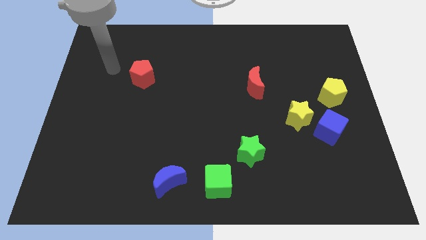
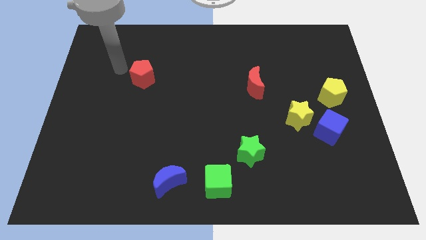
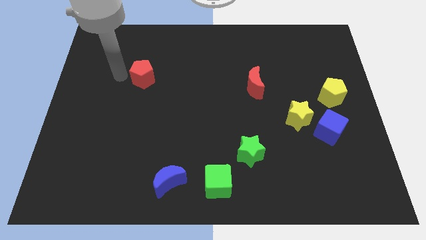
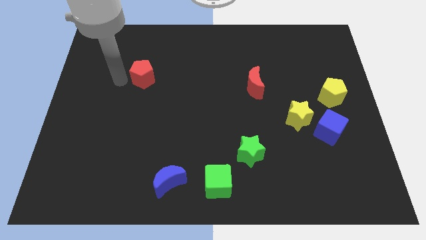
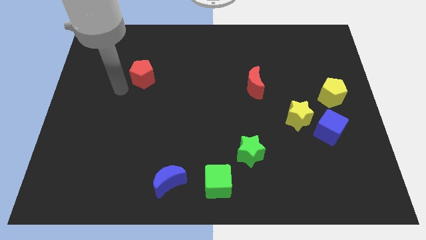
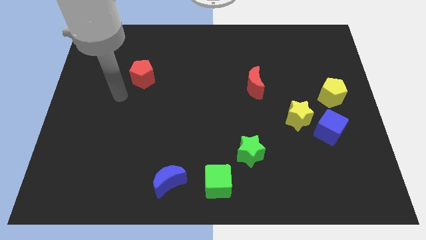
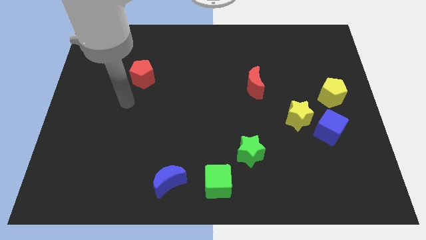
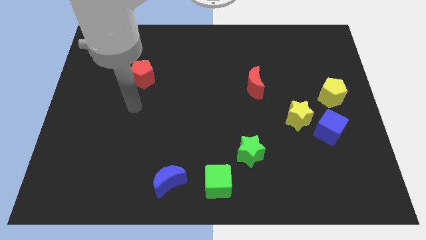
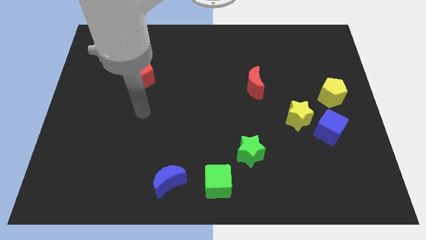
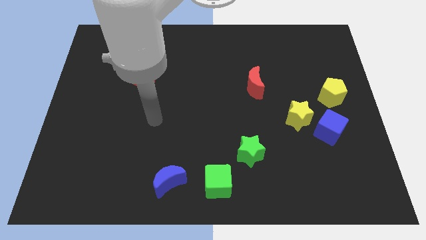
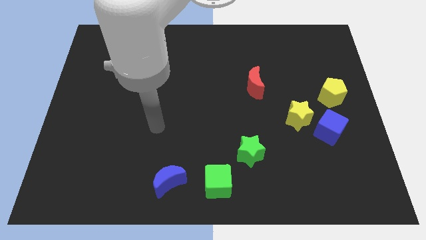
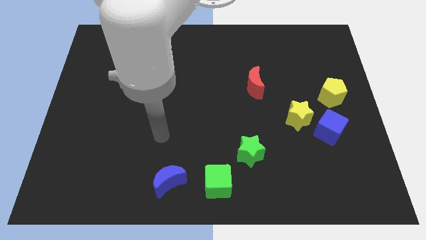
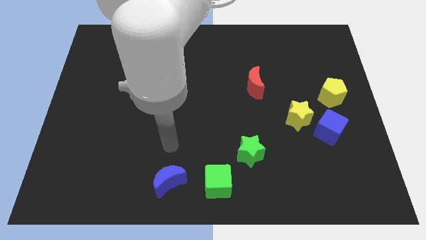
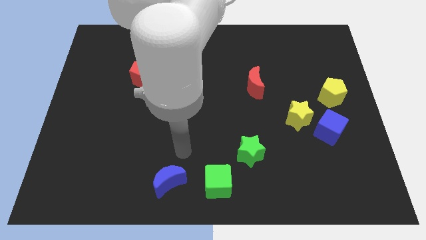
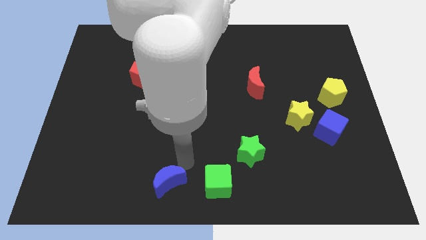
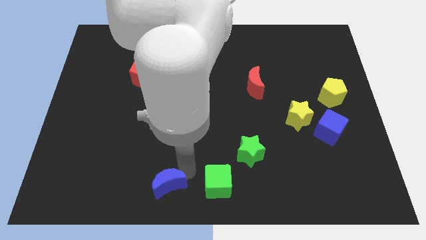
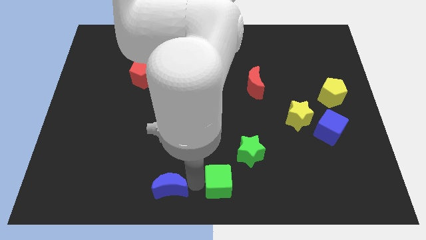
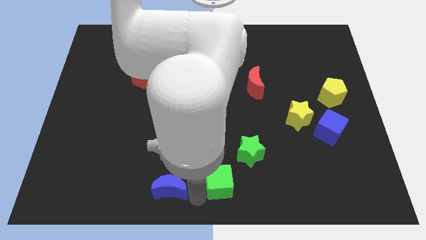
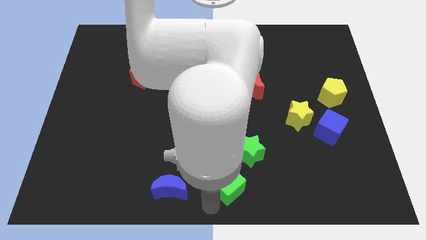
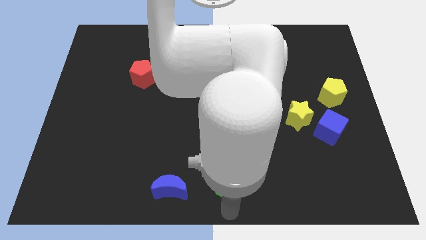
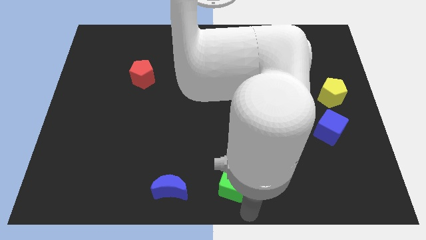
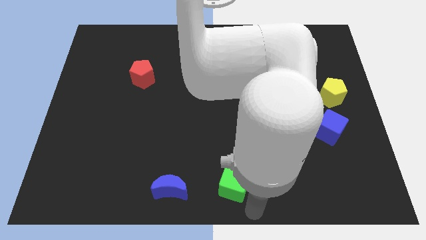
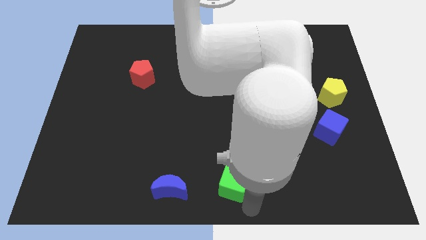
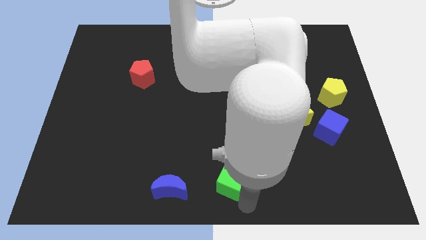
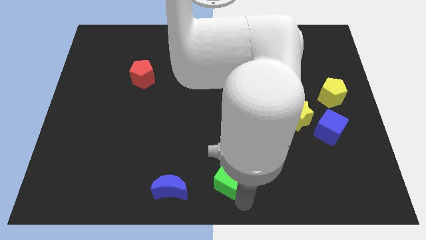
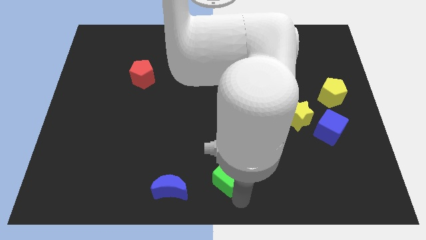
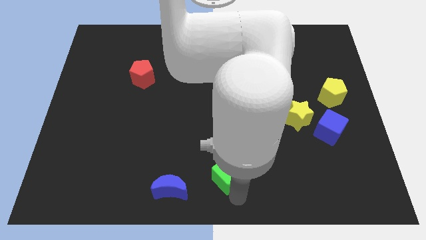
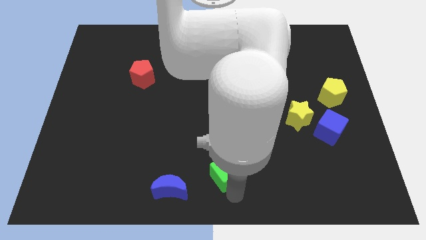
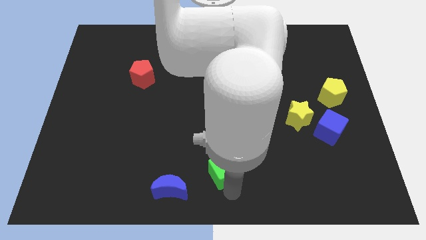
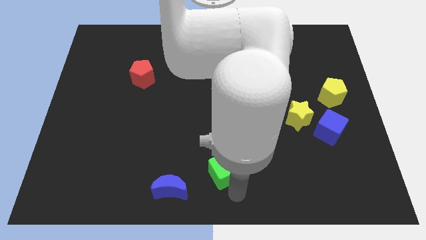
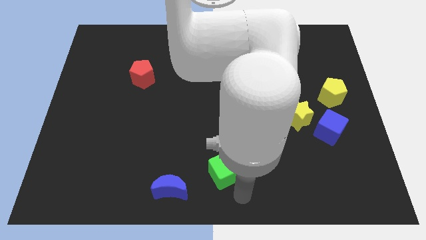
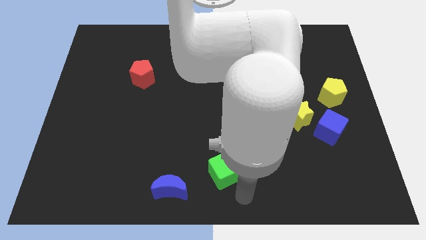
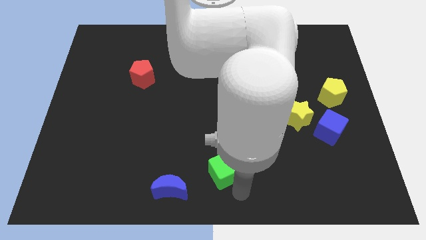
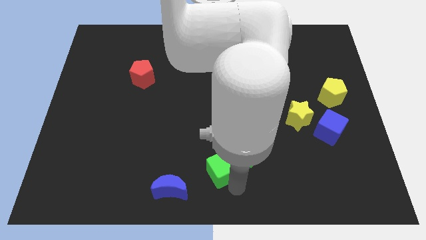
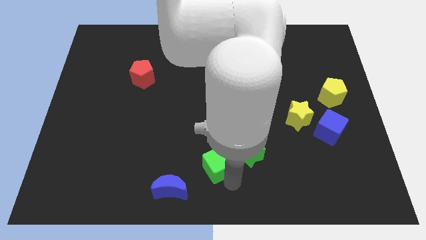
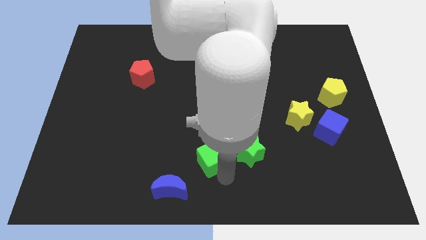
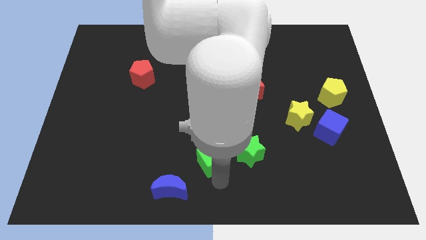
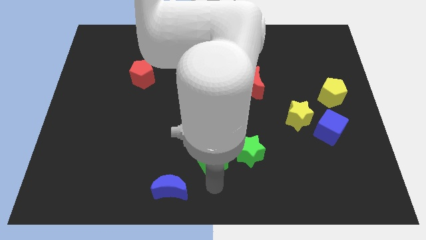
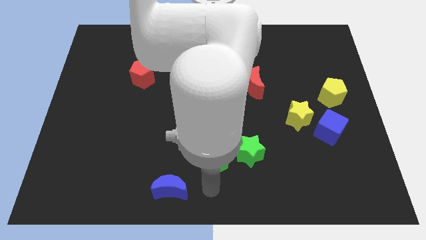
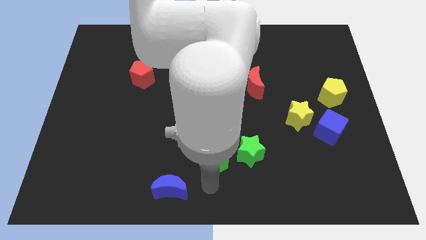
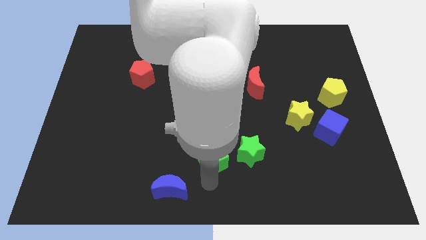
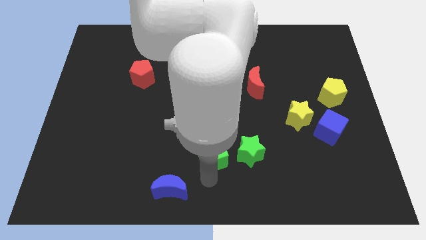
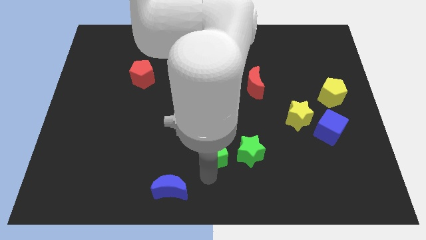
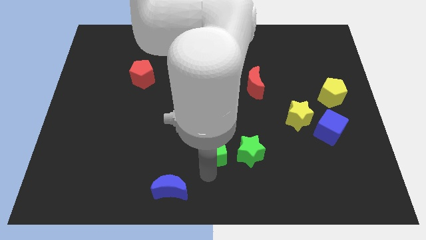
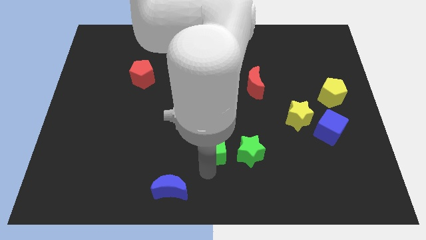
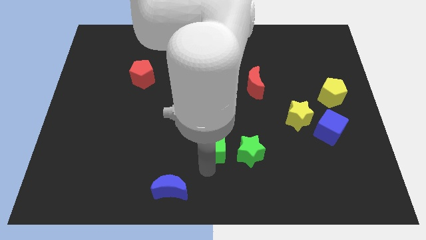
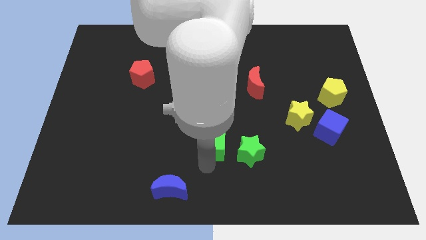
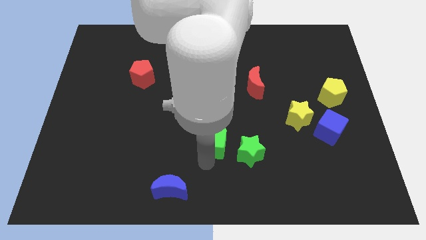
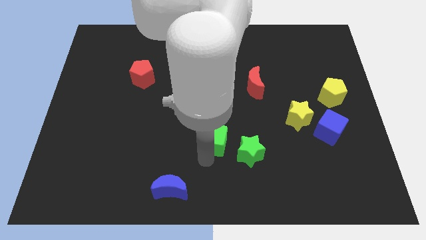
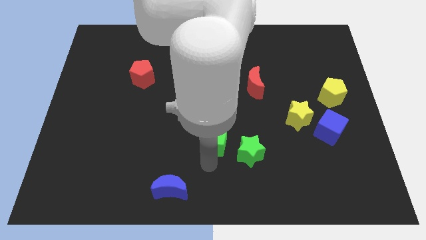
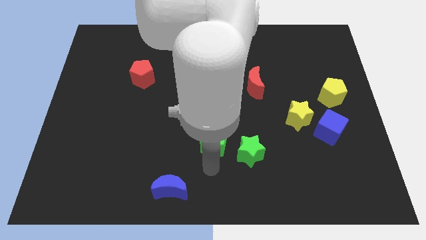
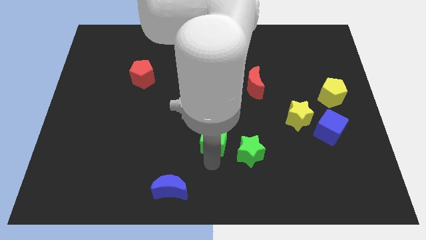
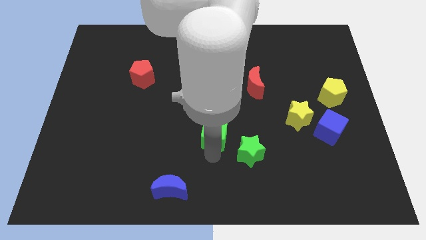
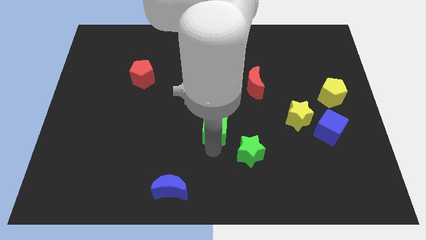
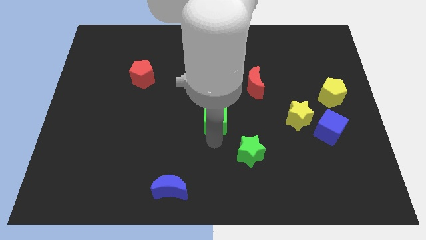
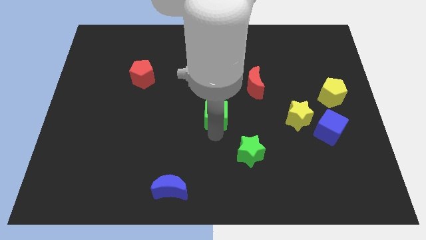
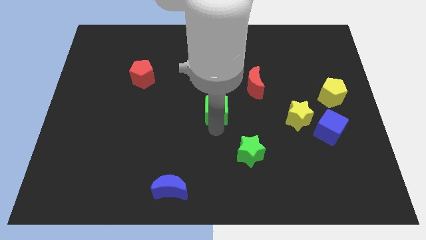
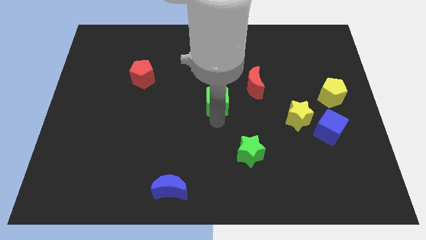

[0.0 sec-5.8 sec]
slide the green cube up

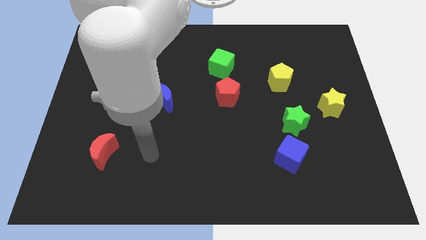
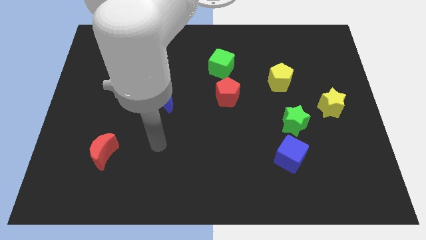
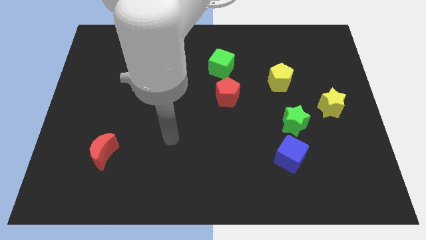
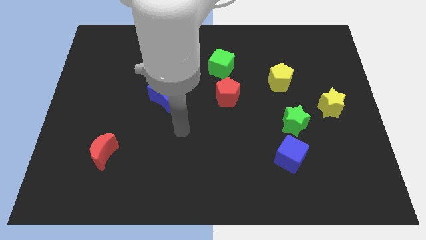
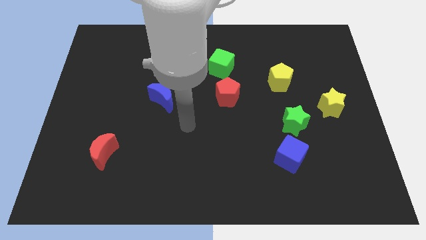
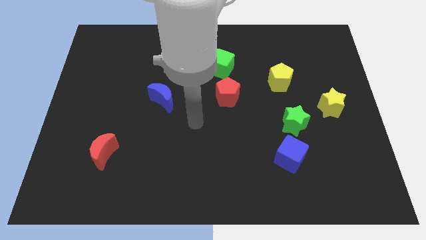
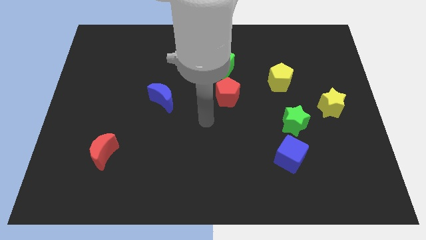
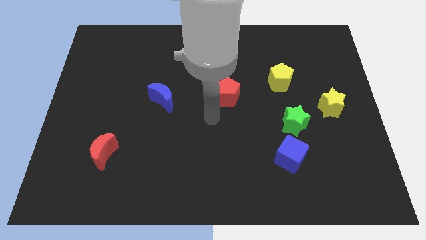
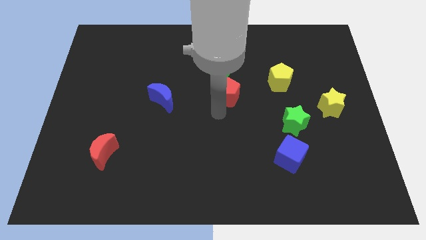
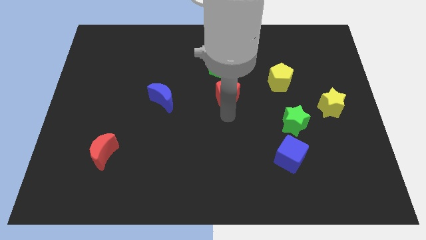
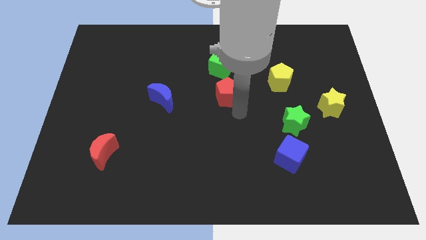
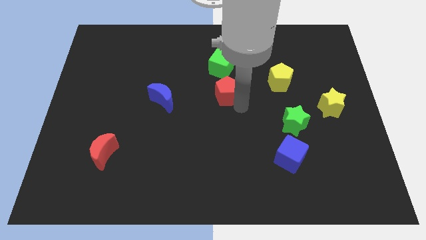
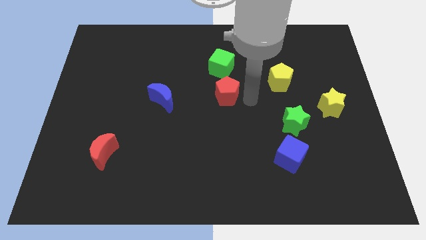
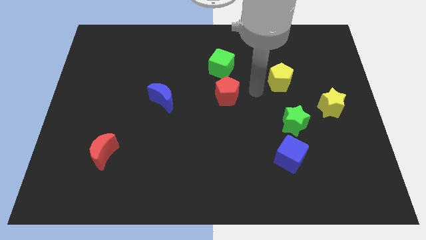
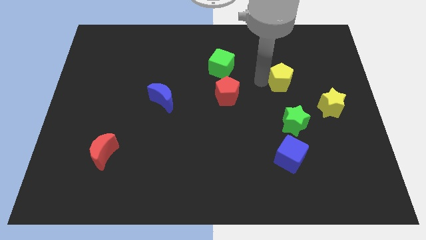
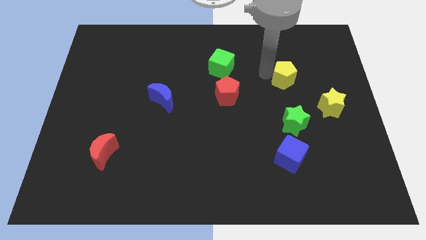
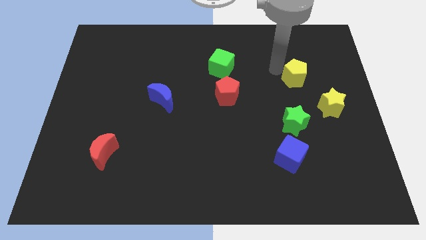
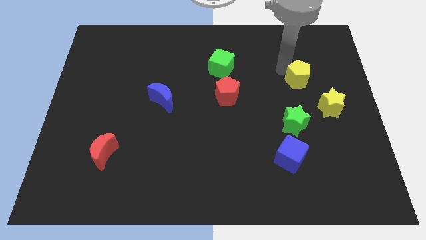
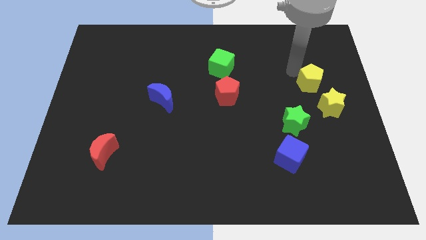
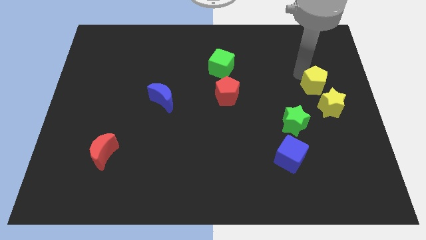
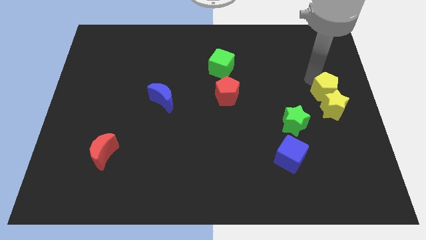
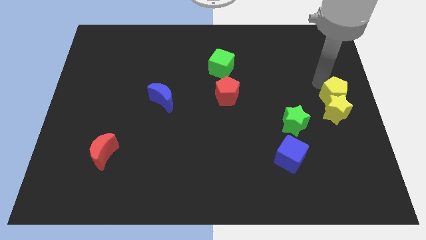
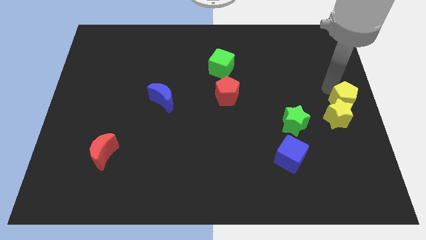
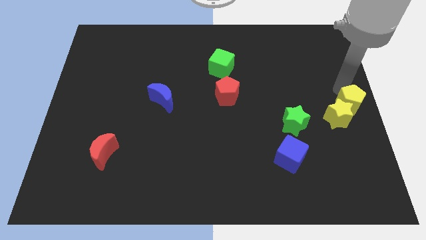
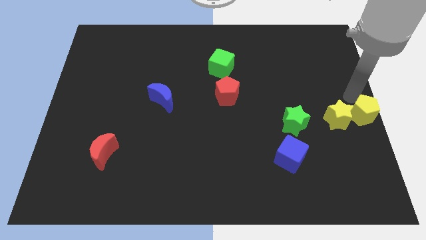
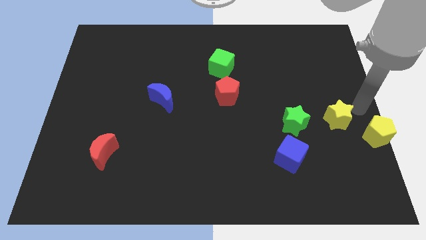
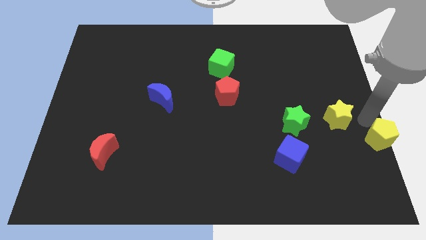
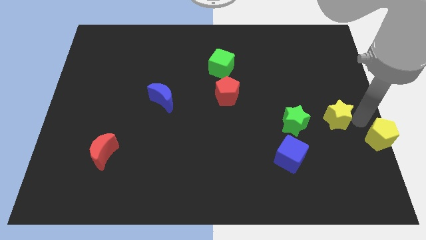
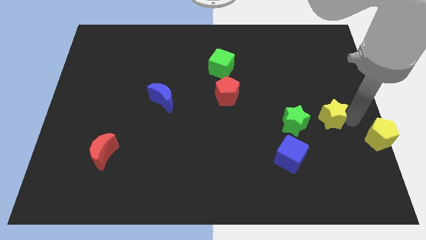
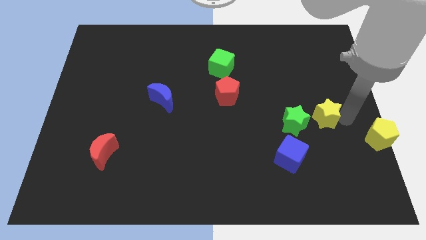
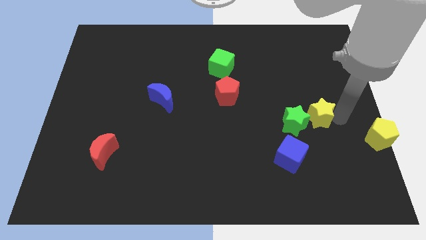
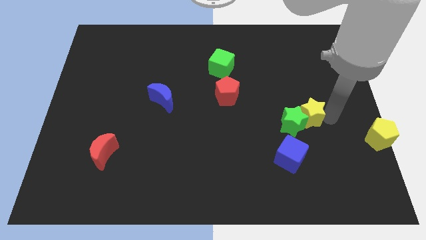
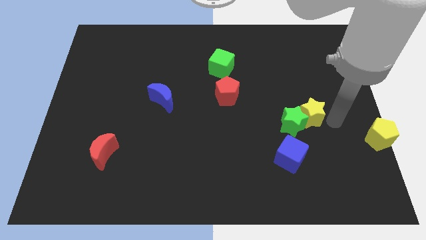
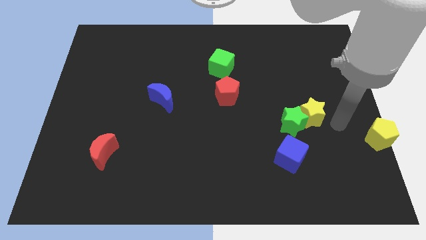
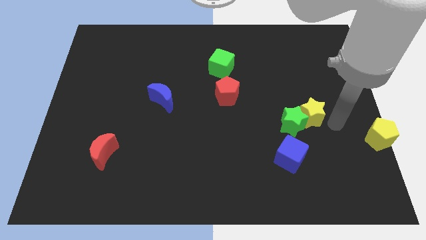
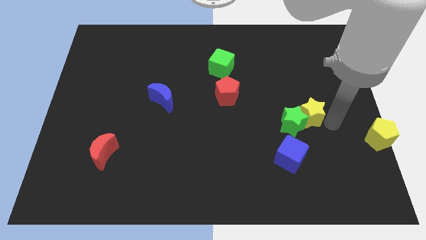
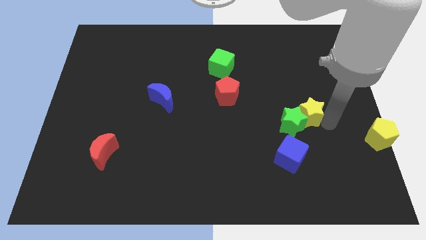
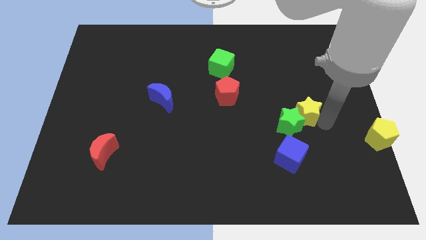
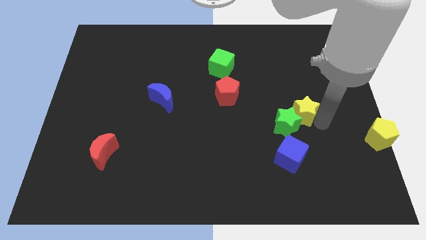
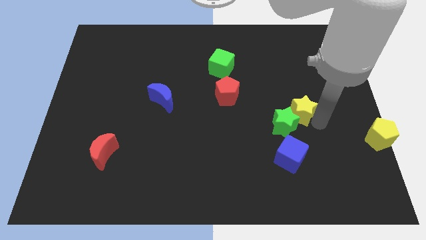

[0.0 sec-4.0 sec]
slightly move the yellow star to the left
